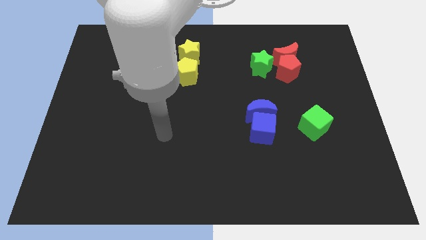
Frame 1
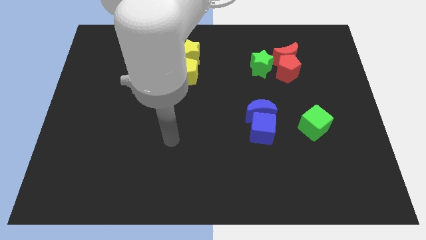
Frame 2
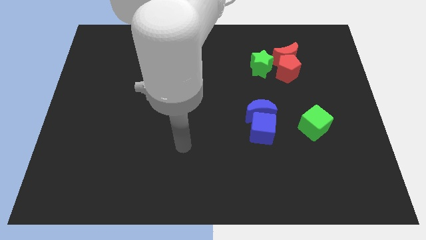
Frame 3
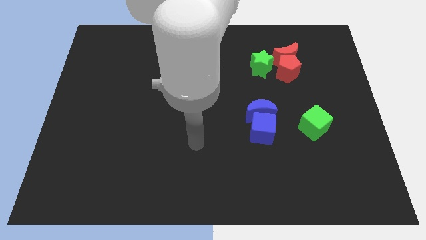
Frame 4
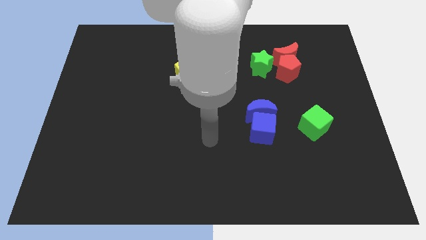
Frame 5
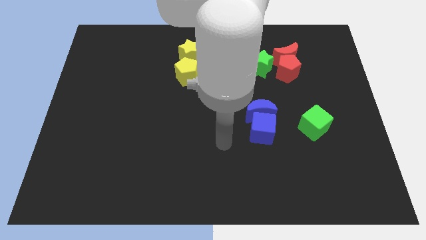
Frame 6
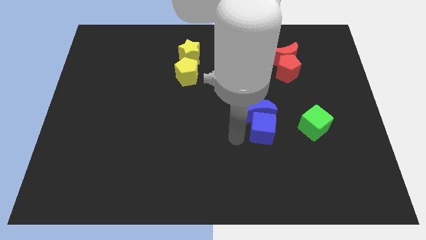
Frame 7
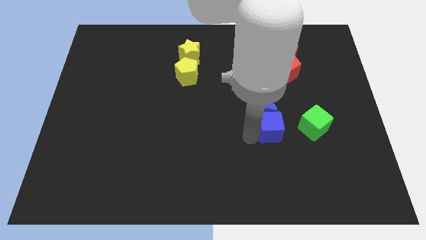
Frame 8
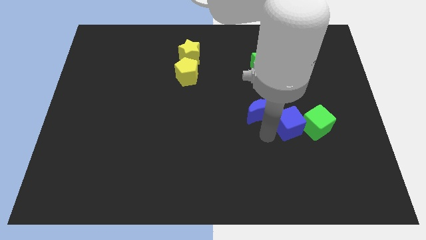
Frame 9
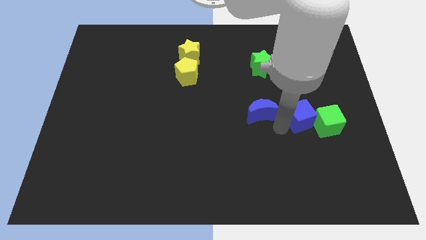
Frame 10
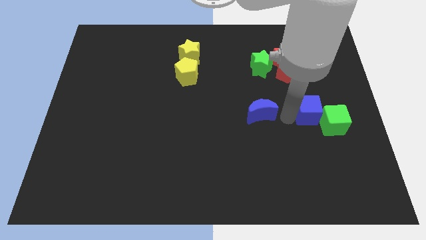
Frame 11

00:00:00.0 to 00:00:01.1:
move the blue moon away from the blue cube

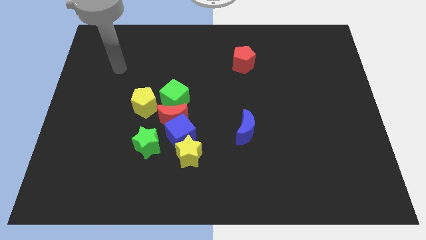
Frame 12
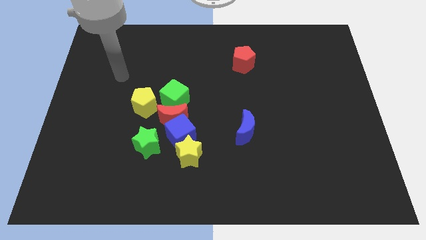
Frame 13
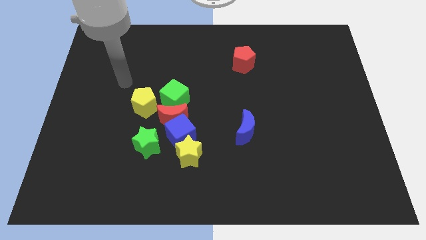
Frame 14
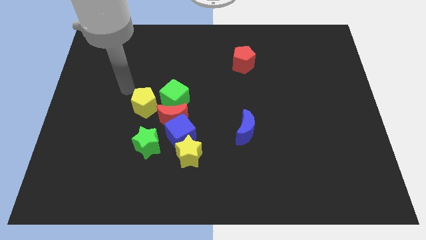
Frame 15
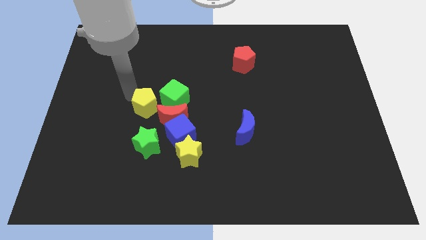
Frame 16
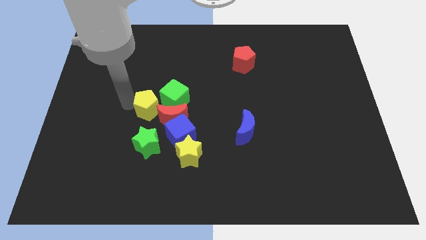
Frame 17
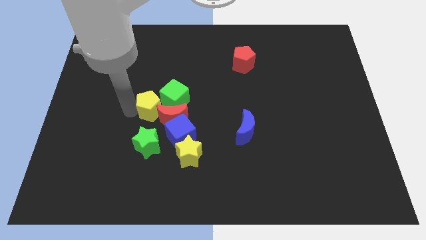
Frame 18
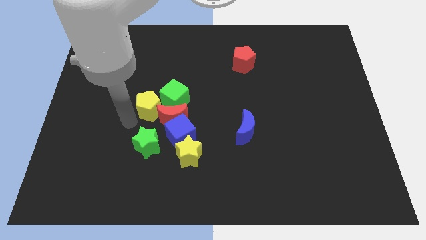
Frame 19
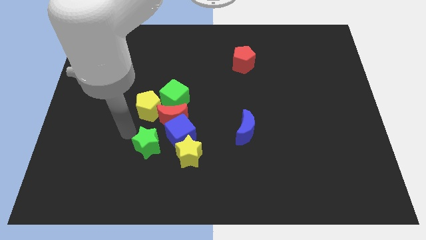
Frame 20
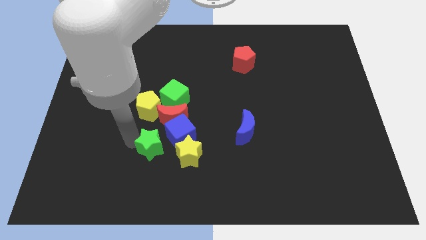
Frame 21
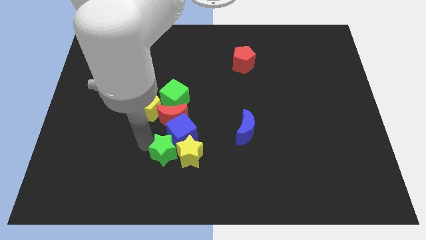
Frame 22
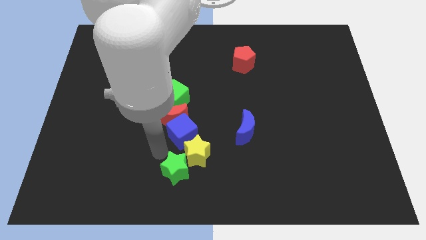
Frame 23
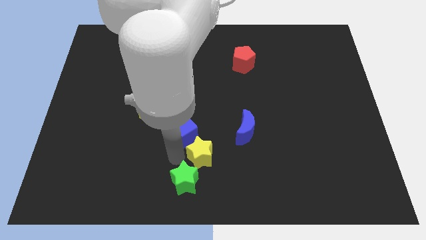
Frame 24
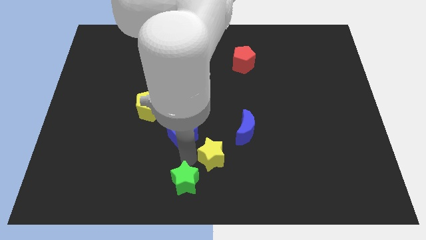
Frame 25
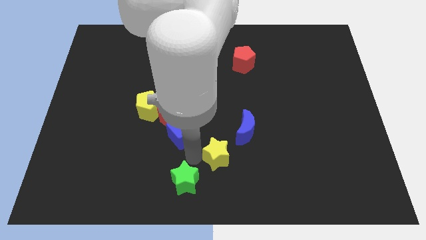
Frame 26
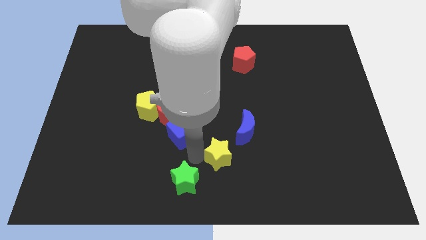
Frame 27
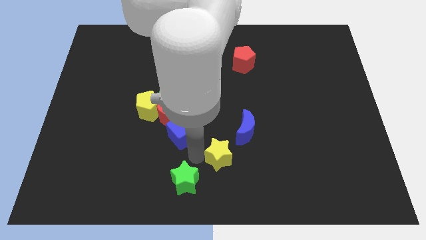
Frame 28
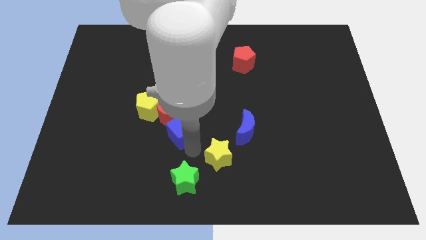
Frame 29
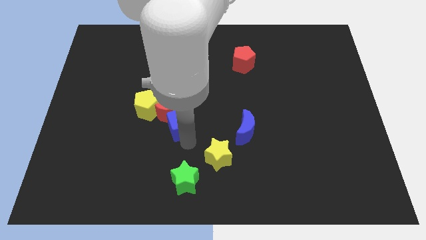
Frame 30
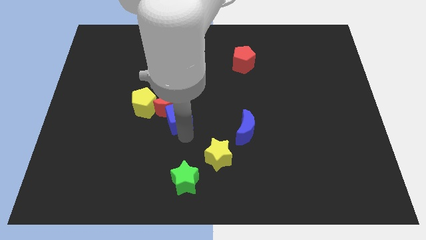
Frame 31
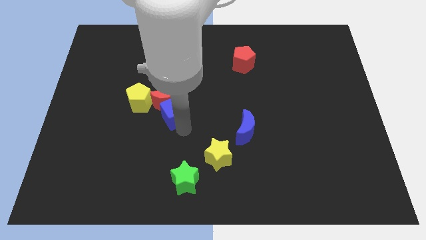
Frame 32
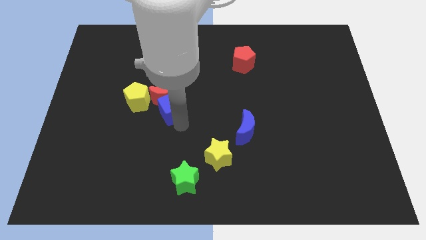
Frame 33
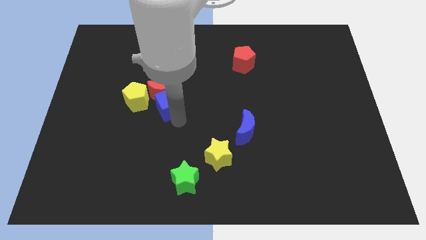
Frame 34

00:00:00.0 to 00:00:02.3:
separate the blue cube from the group

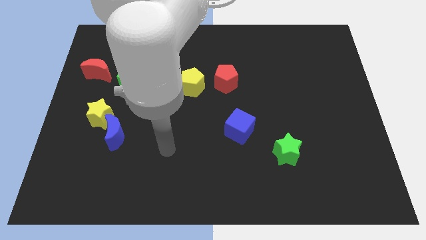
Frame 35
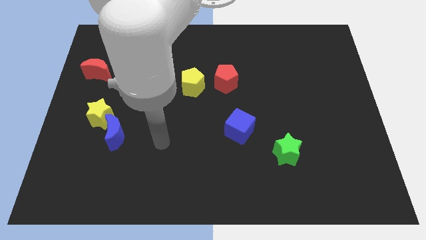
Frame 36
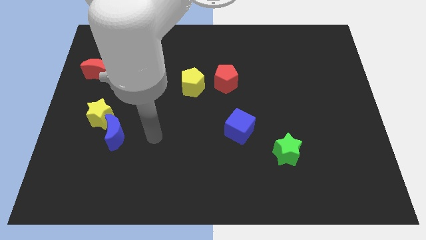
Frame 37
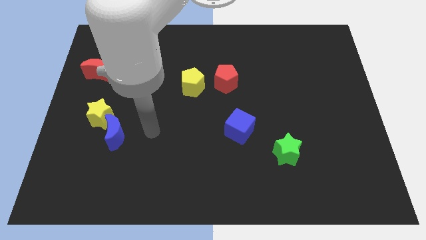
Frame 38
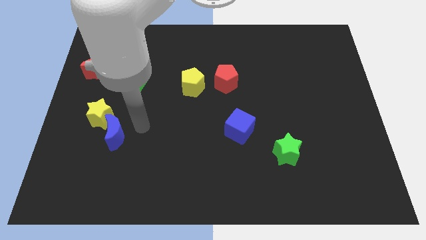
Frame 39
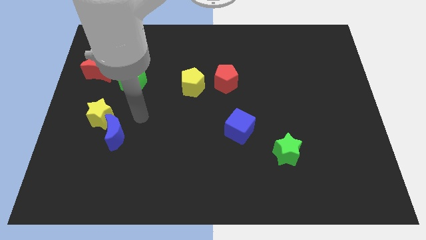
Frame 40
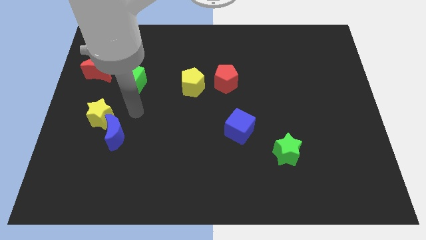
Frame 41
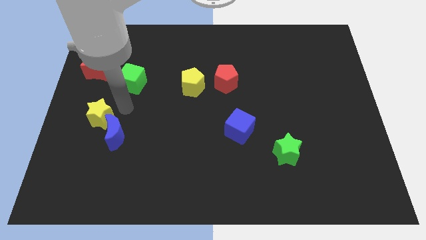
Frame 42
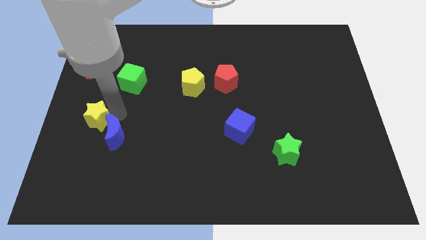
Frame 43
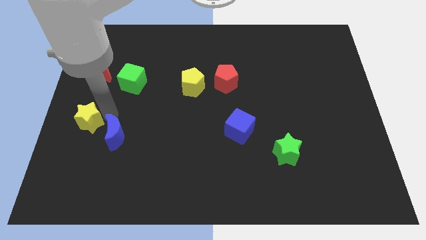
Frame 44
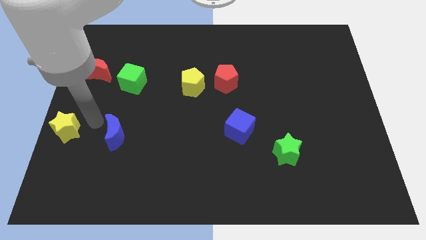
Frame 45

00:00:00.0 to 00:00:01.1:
pull the blue moon apart from the yellow star

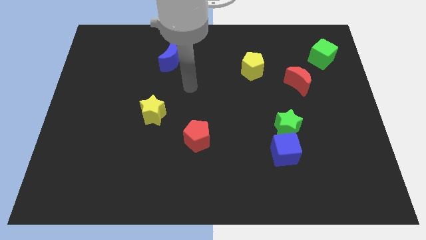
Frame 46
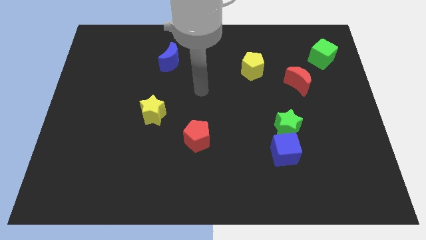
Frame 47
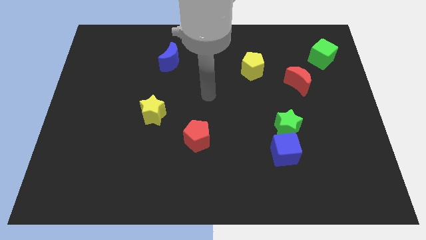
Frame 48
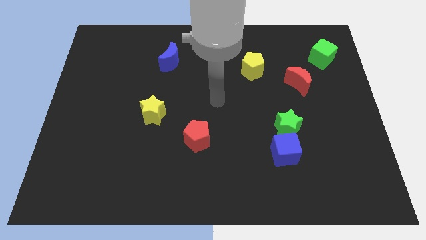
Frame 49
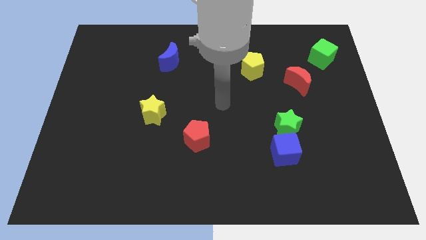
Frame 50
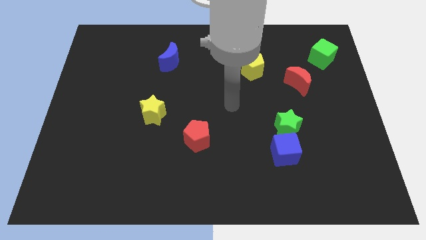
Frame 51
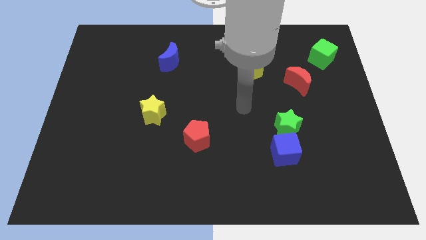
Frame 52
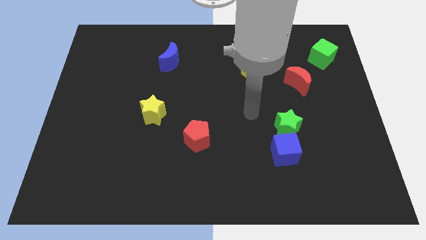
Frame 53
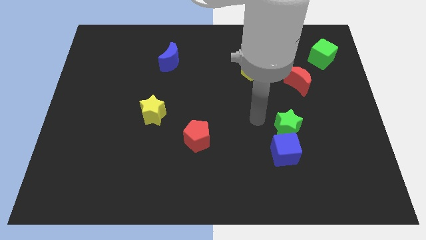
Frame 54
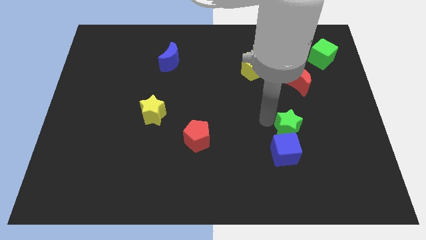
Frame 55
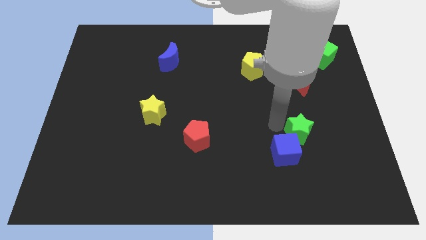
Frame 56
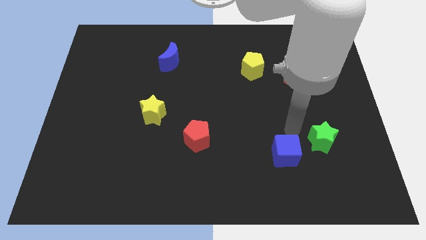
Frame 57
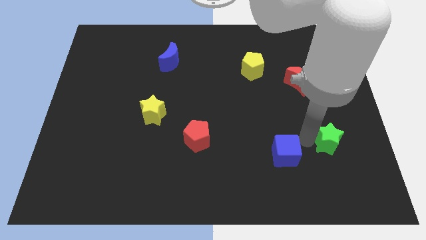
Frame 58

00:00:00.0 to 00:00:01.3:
separate the blue cube from the green star

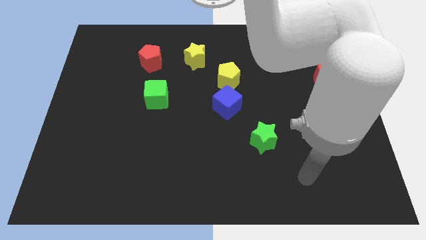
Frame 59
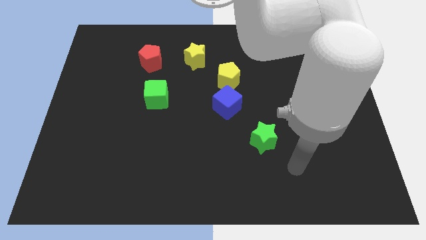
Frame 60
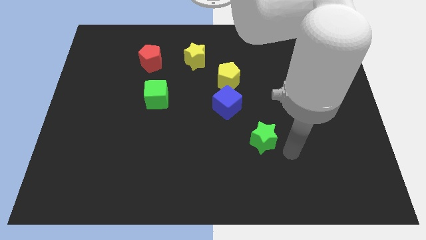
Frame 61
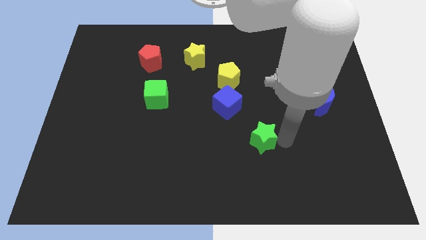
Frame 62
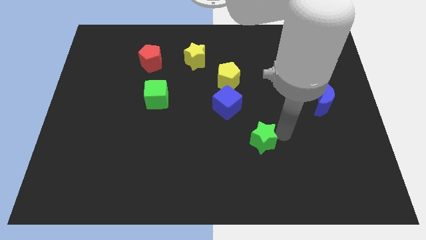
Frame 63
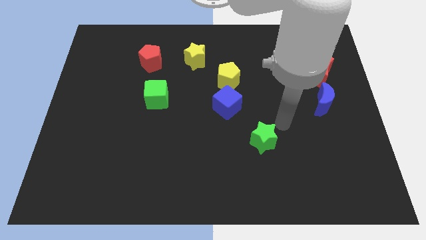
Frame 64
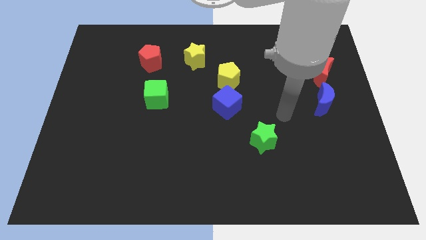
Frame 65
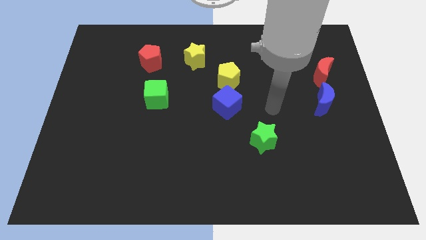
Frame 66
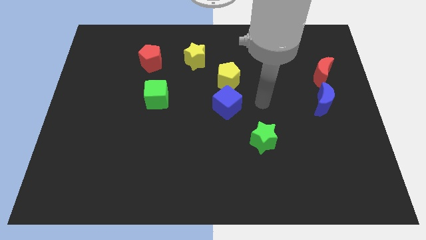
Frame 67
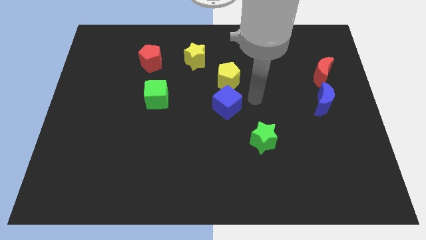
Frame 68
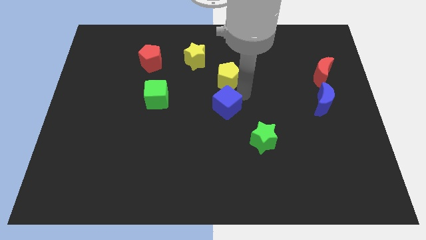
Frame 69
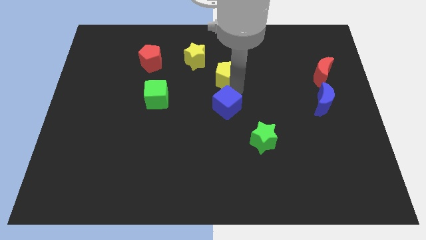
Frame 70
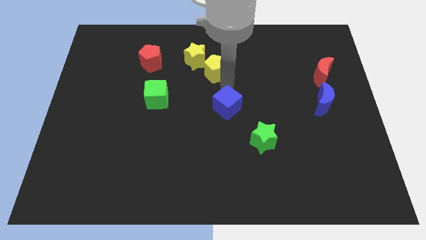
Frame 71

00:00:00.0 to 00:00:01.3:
pull the blue cube apart from the yellow pentagon

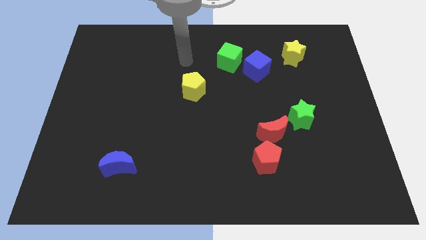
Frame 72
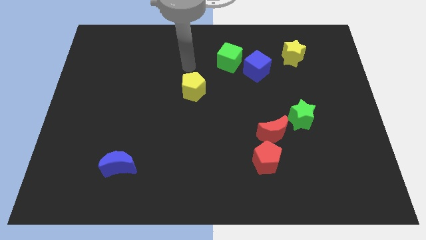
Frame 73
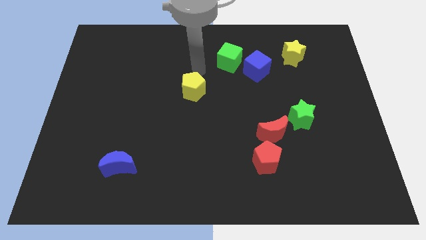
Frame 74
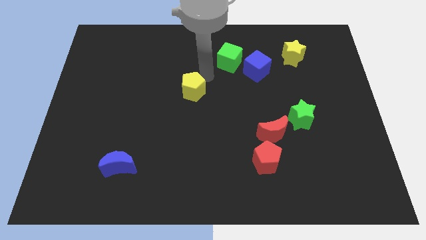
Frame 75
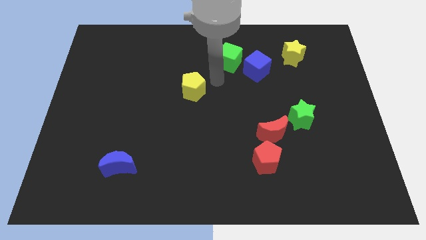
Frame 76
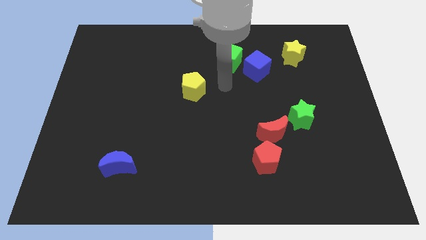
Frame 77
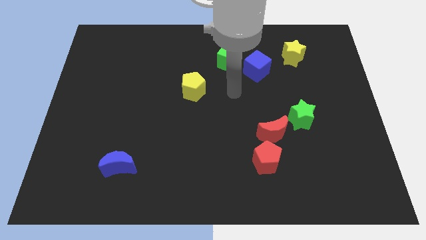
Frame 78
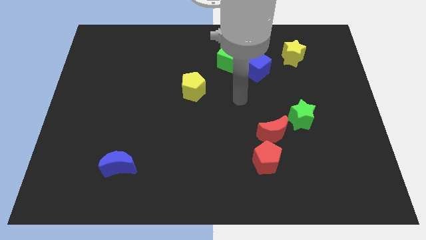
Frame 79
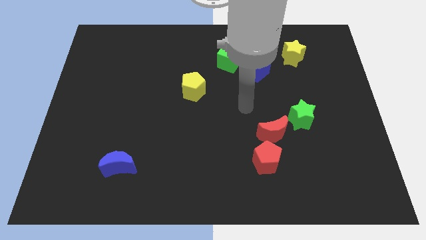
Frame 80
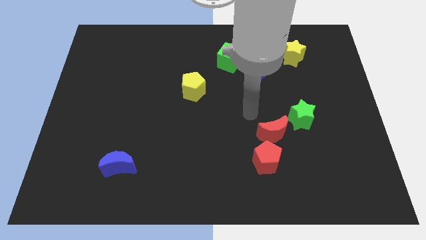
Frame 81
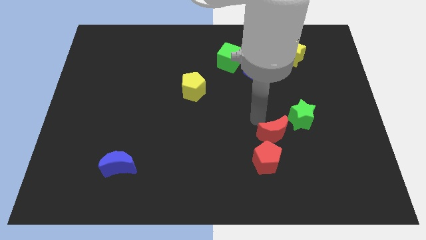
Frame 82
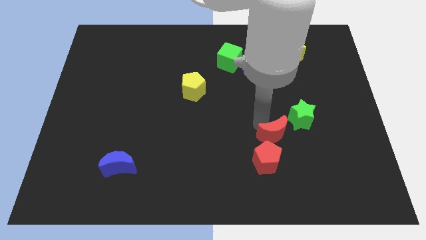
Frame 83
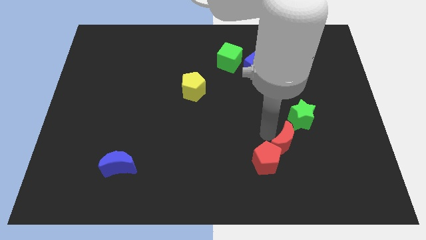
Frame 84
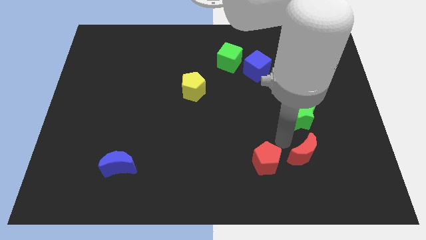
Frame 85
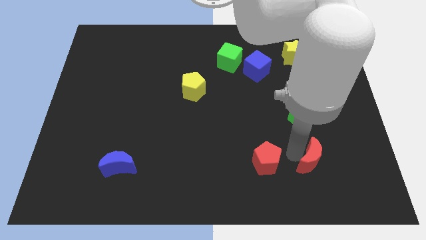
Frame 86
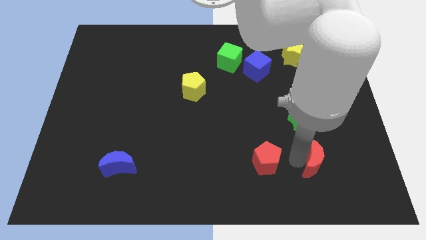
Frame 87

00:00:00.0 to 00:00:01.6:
pull the red pentagon apart from the red moon

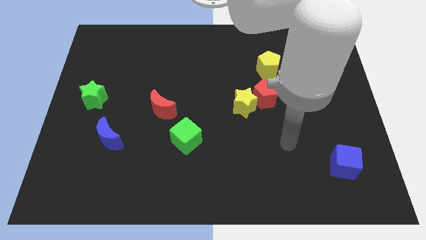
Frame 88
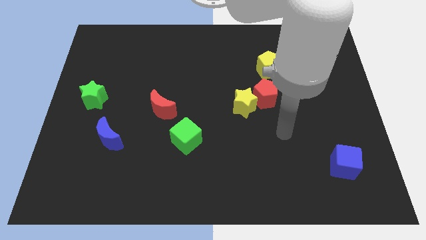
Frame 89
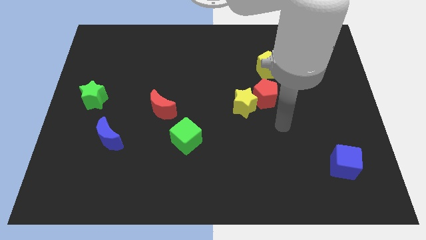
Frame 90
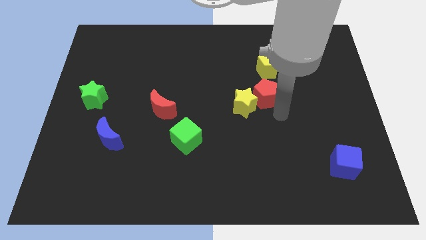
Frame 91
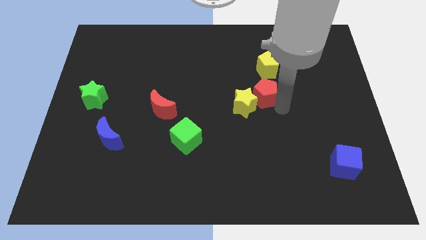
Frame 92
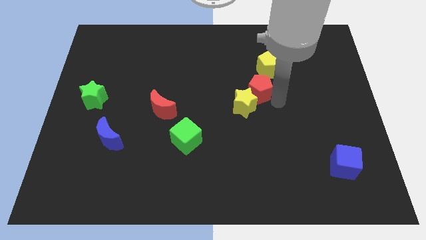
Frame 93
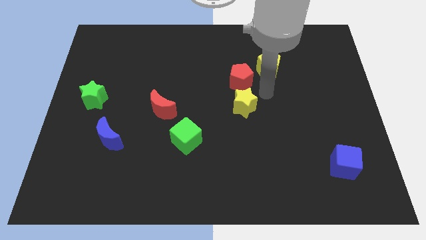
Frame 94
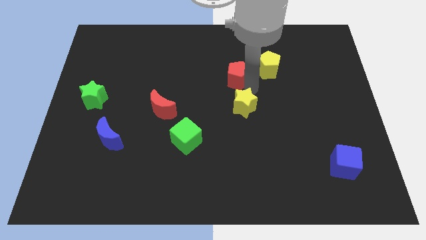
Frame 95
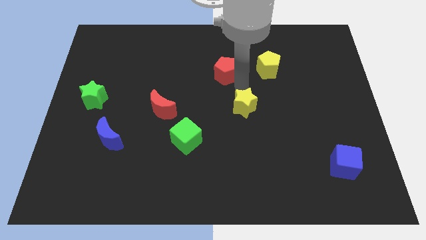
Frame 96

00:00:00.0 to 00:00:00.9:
pull the yellow star apart from the red pentagon
